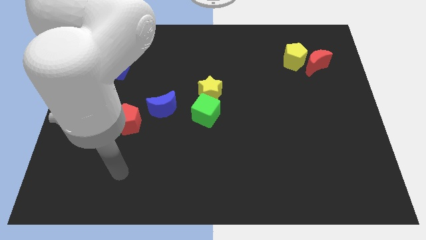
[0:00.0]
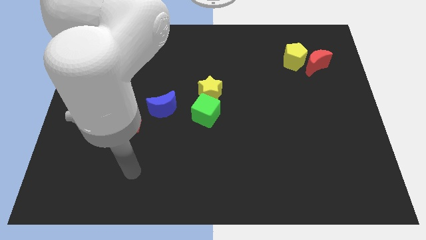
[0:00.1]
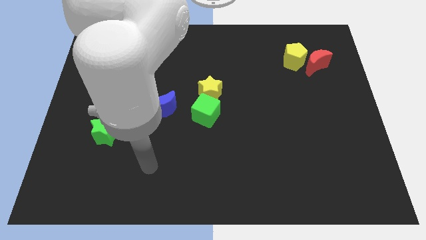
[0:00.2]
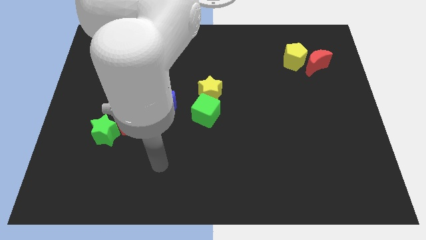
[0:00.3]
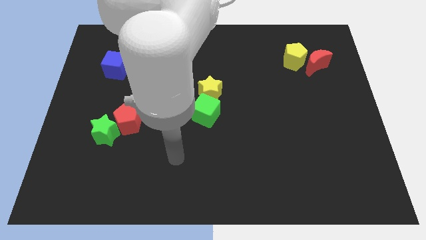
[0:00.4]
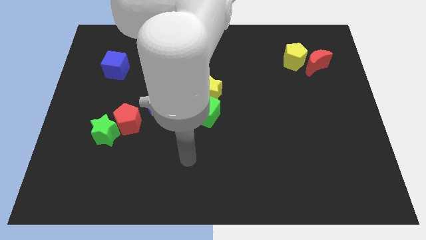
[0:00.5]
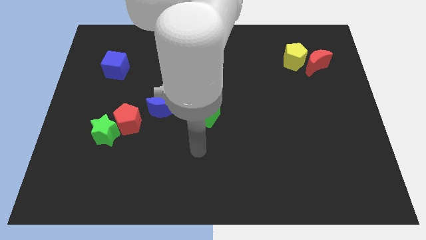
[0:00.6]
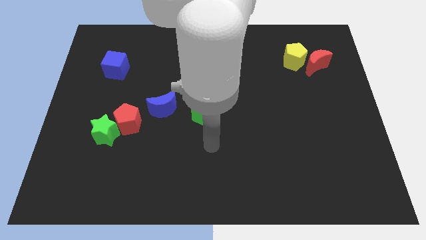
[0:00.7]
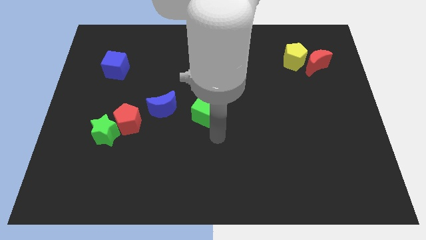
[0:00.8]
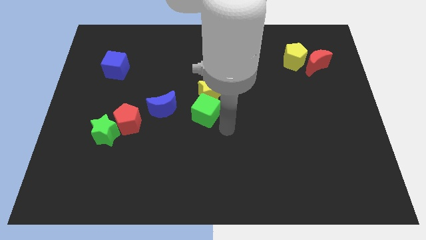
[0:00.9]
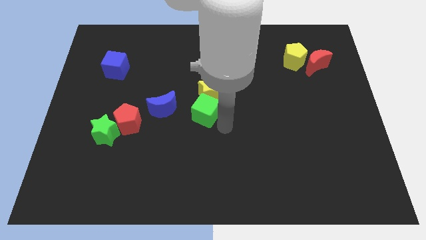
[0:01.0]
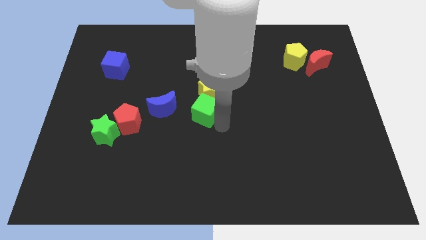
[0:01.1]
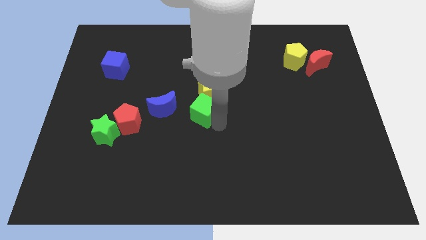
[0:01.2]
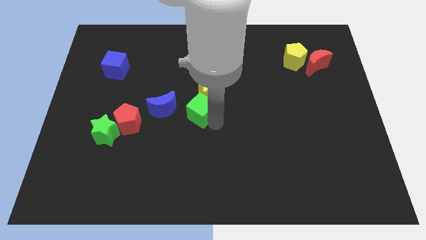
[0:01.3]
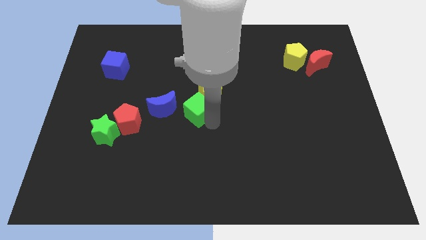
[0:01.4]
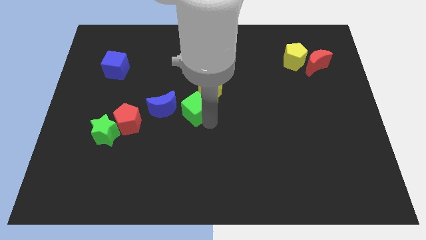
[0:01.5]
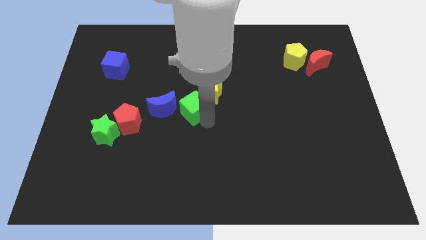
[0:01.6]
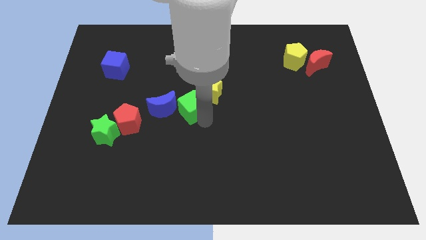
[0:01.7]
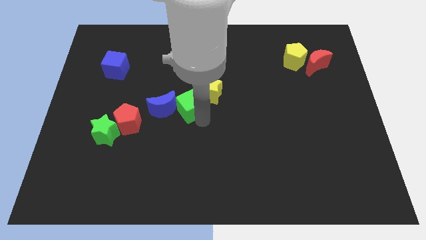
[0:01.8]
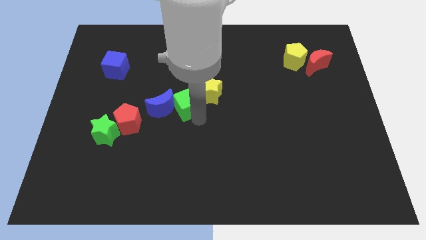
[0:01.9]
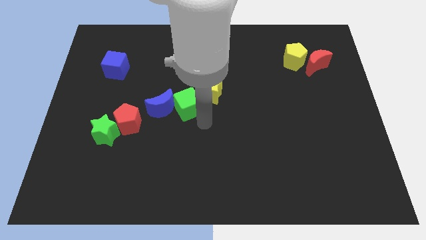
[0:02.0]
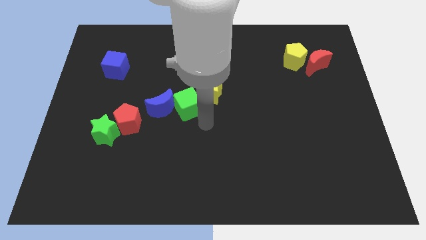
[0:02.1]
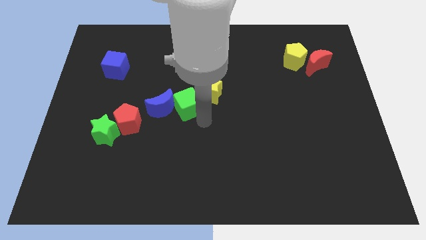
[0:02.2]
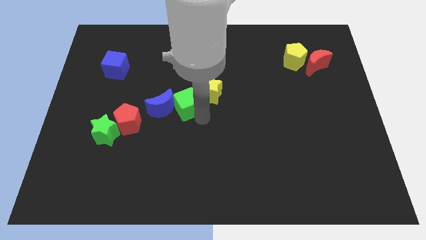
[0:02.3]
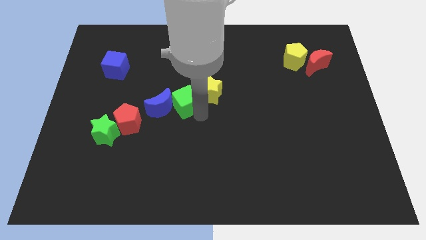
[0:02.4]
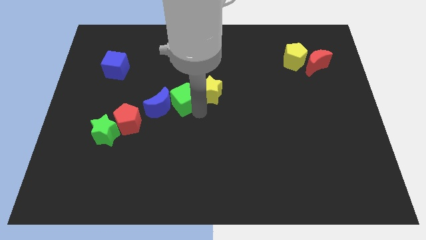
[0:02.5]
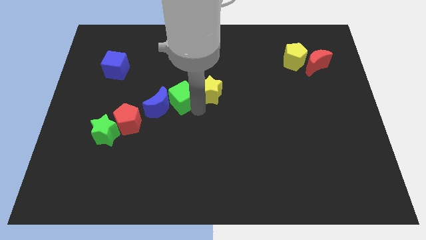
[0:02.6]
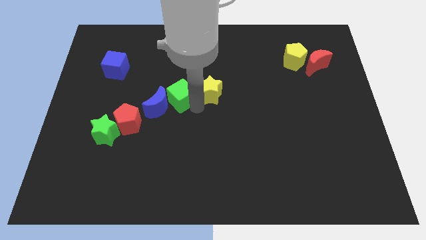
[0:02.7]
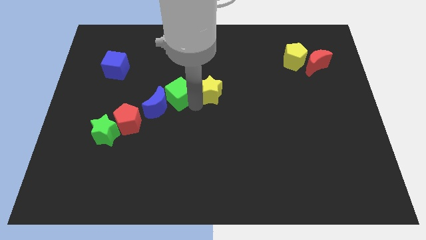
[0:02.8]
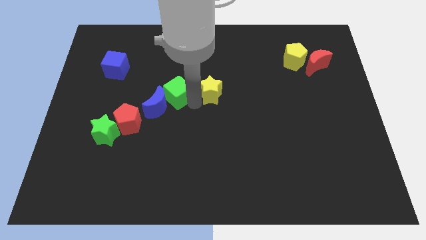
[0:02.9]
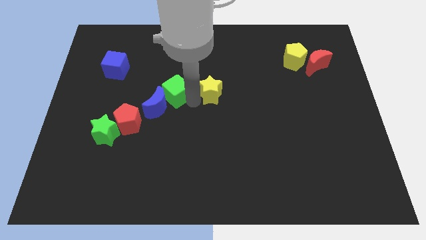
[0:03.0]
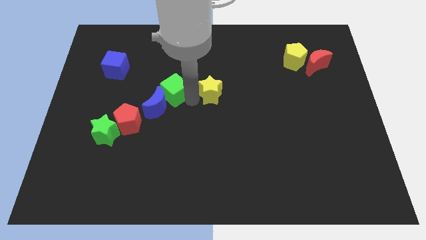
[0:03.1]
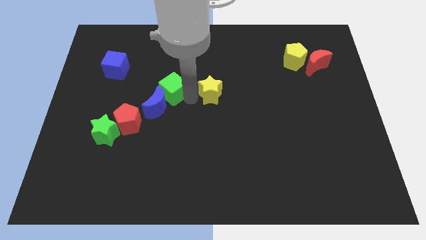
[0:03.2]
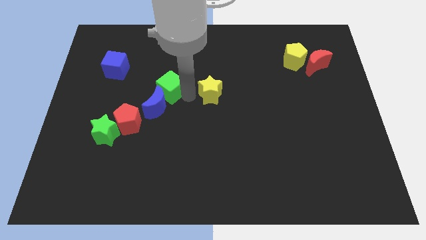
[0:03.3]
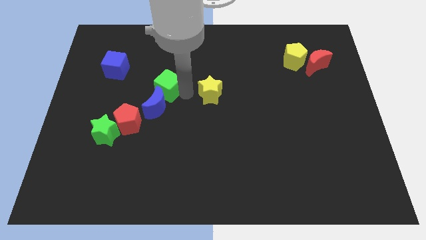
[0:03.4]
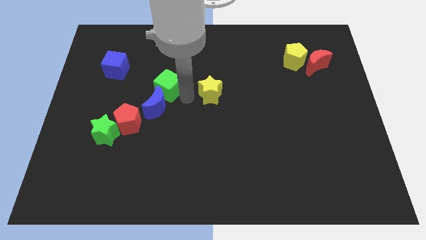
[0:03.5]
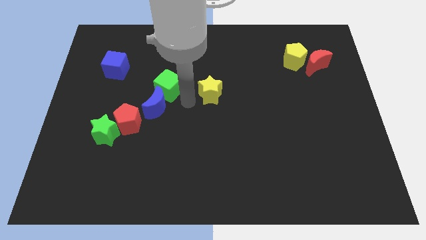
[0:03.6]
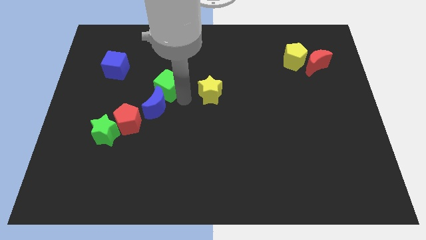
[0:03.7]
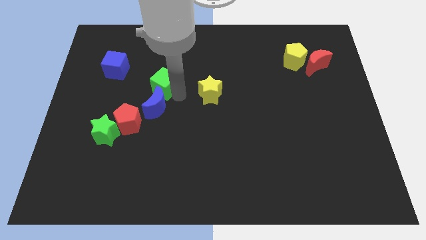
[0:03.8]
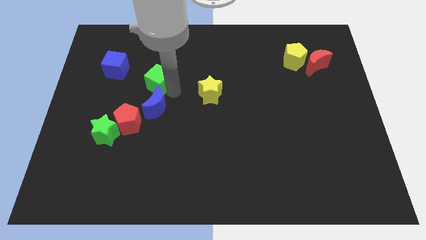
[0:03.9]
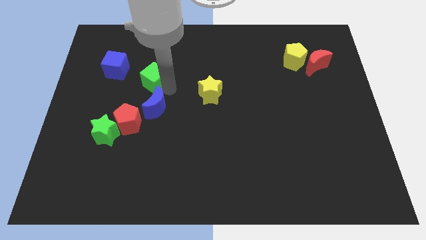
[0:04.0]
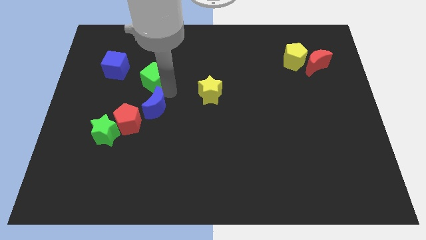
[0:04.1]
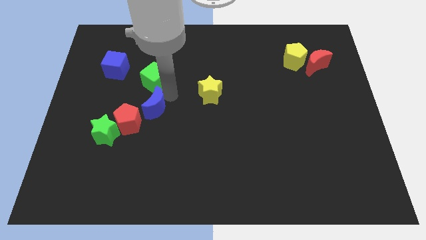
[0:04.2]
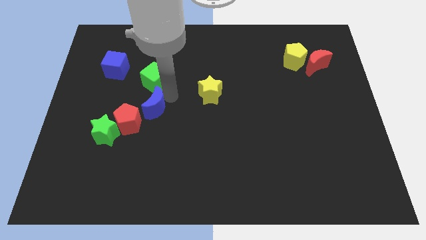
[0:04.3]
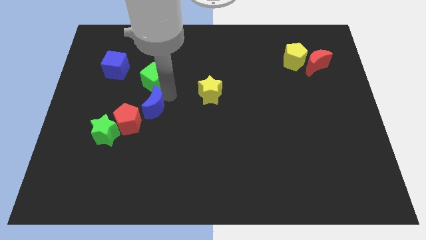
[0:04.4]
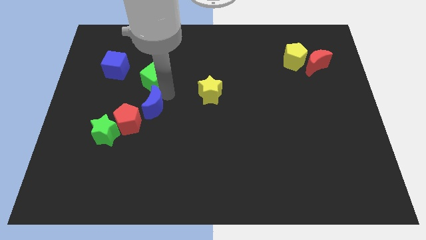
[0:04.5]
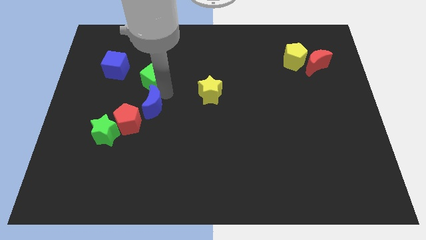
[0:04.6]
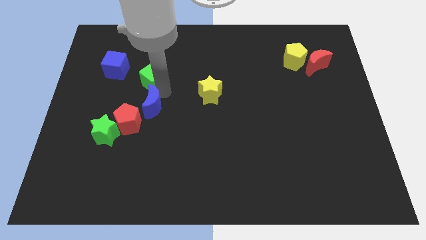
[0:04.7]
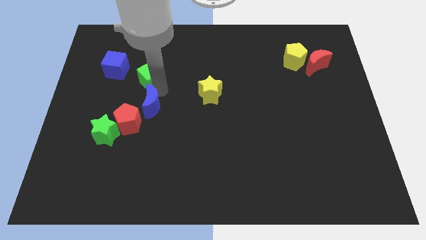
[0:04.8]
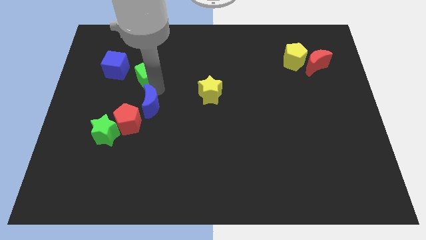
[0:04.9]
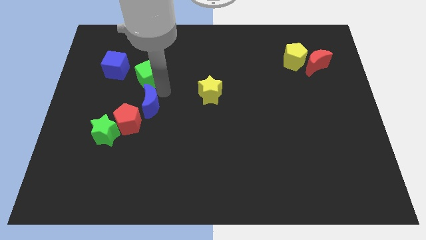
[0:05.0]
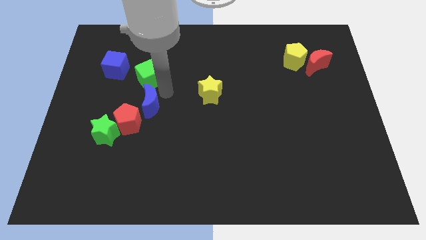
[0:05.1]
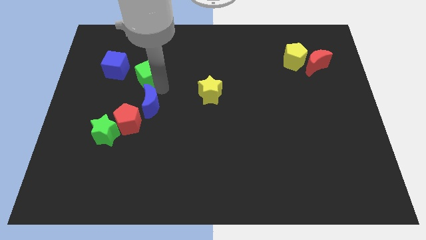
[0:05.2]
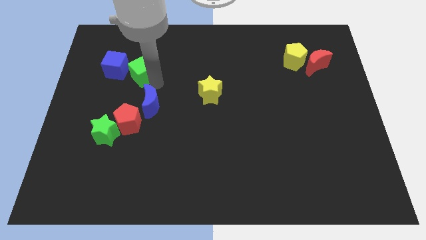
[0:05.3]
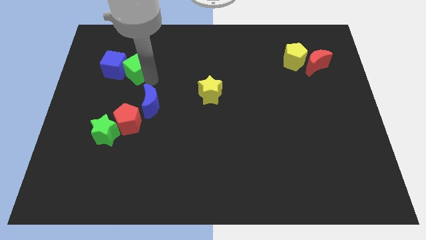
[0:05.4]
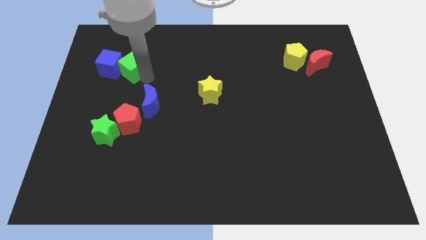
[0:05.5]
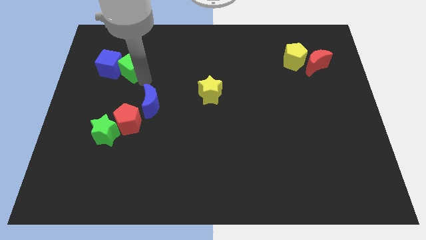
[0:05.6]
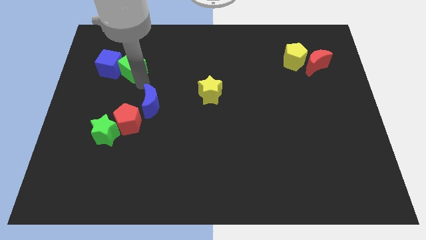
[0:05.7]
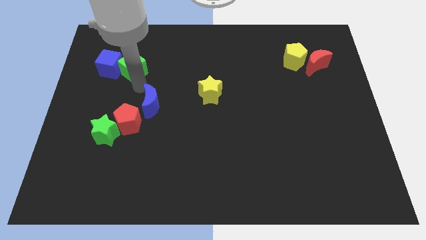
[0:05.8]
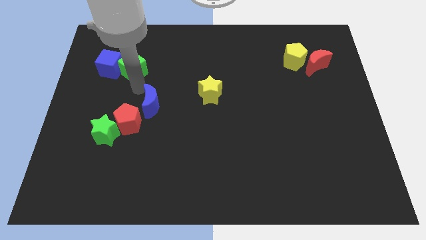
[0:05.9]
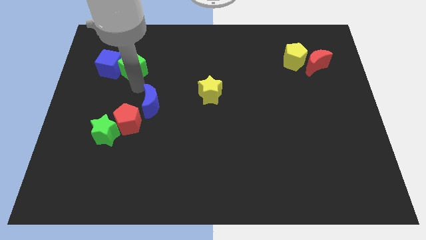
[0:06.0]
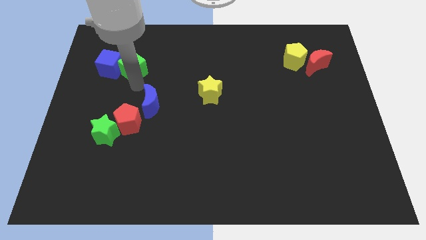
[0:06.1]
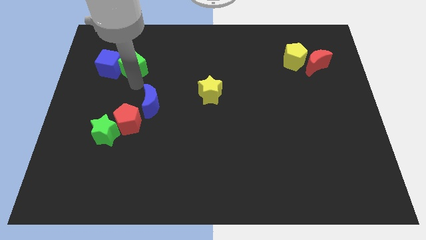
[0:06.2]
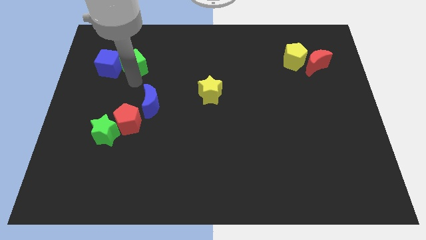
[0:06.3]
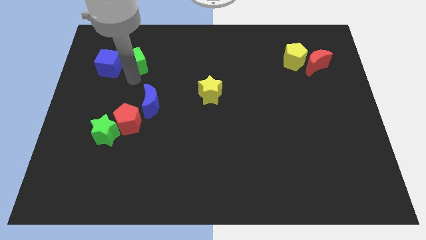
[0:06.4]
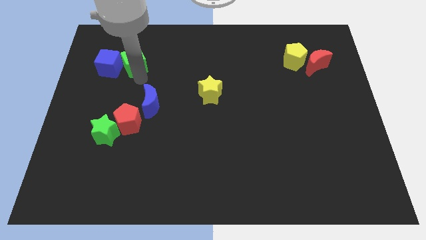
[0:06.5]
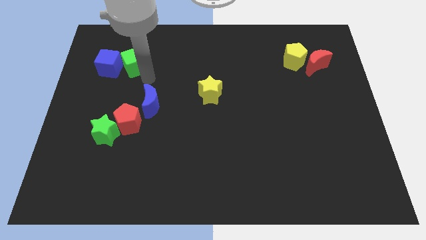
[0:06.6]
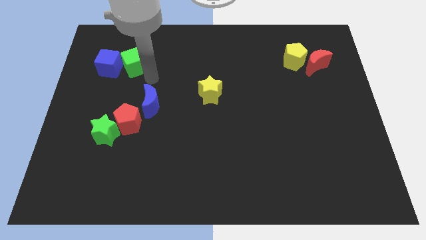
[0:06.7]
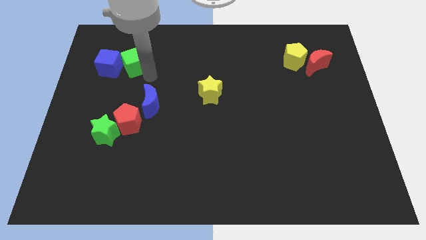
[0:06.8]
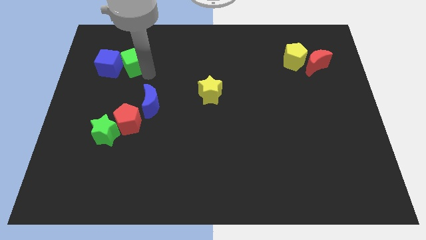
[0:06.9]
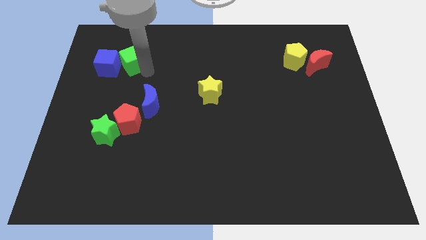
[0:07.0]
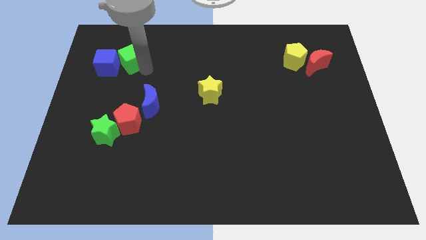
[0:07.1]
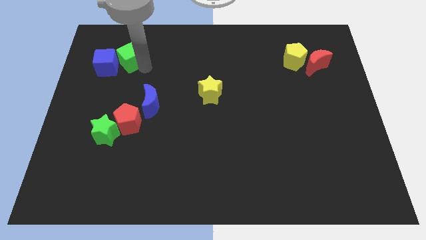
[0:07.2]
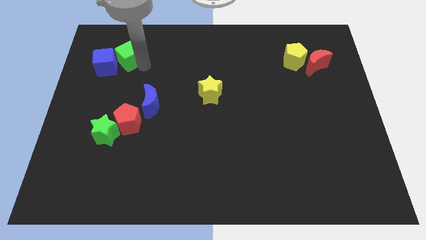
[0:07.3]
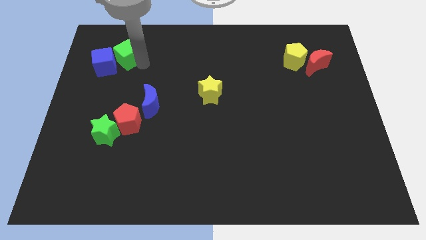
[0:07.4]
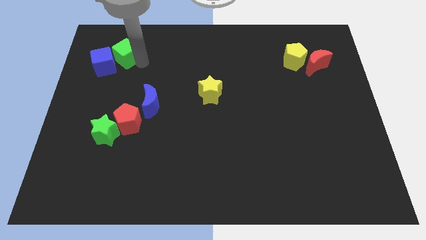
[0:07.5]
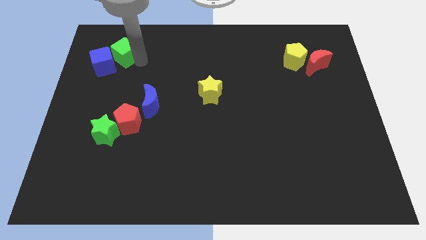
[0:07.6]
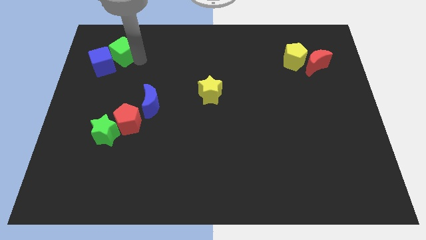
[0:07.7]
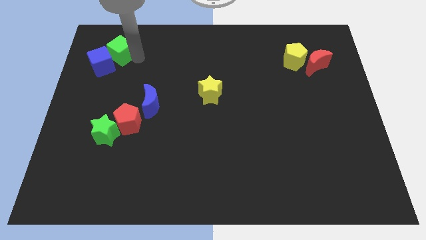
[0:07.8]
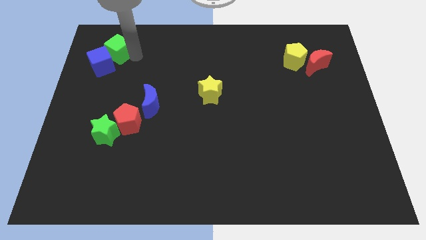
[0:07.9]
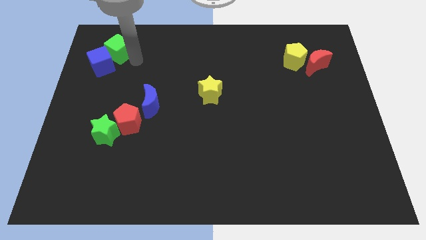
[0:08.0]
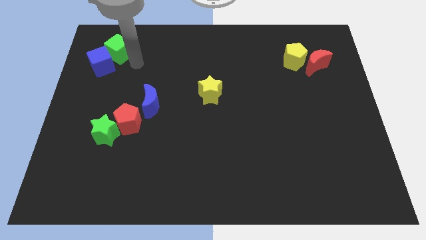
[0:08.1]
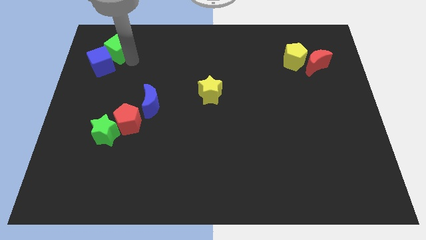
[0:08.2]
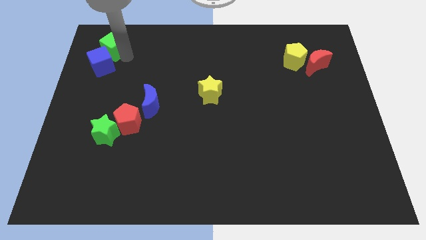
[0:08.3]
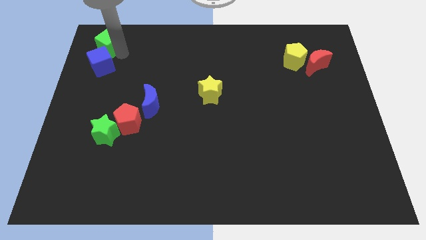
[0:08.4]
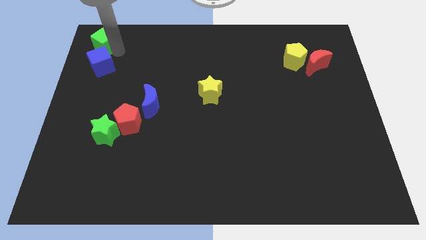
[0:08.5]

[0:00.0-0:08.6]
push the green cube to the top left of the board
